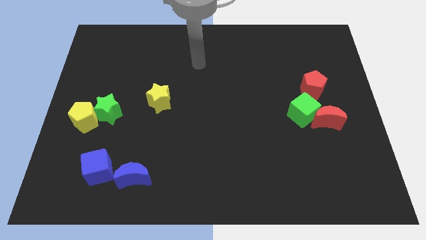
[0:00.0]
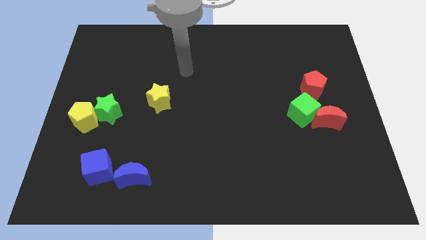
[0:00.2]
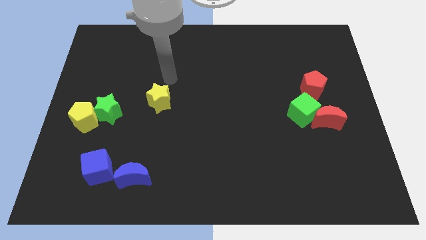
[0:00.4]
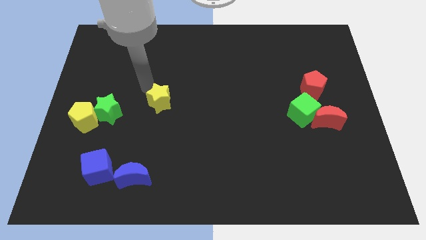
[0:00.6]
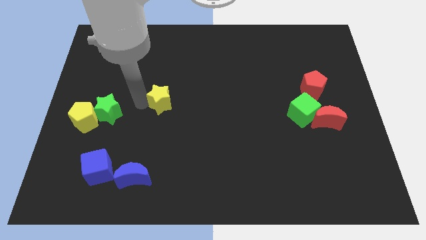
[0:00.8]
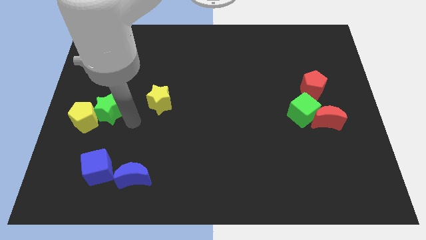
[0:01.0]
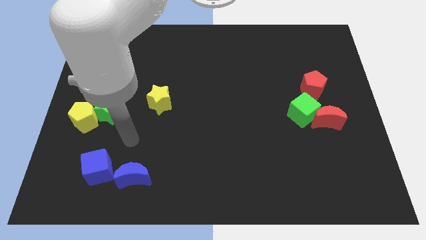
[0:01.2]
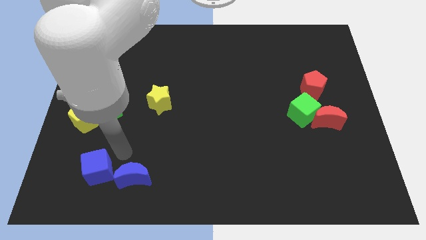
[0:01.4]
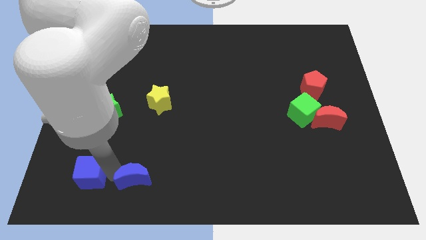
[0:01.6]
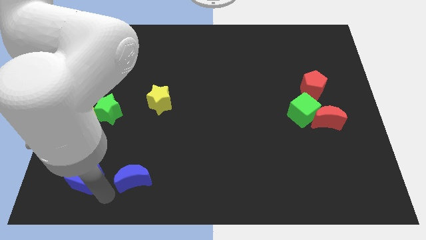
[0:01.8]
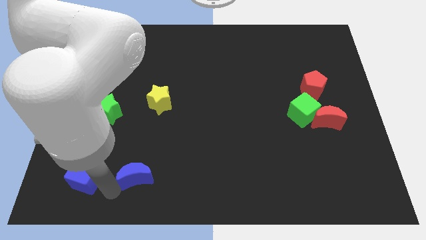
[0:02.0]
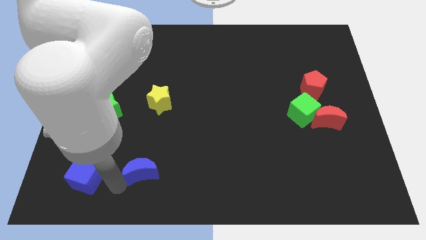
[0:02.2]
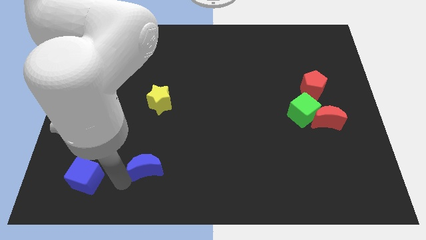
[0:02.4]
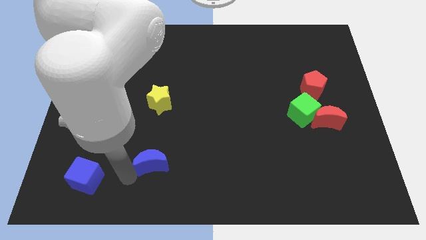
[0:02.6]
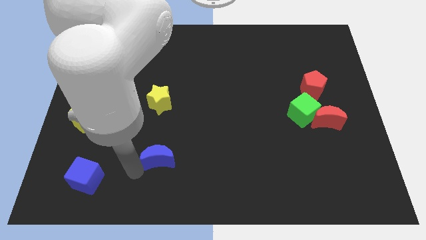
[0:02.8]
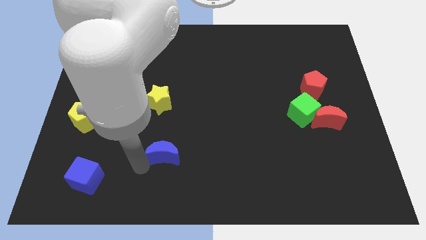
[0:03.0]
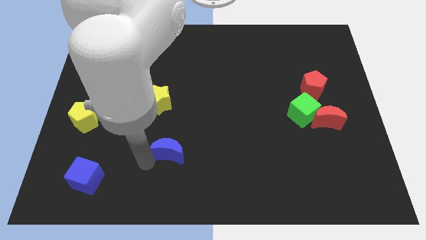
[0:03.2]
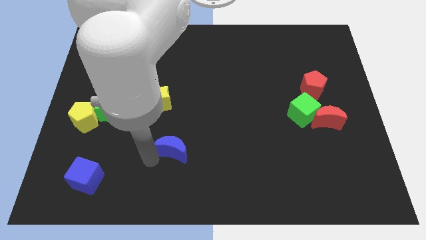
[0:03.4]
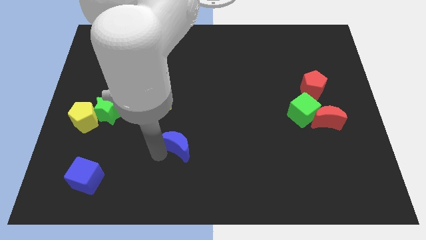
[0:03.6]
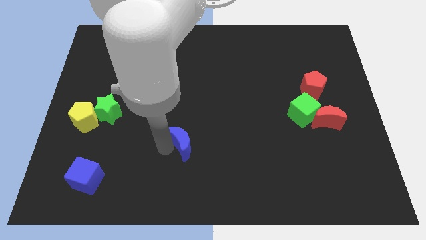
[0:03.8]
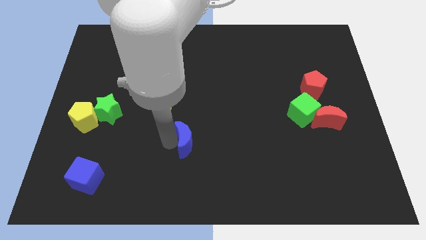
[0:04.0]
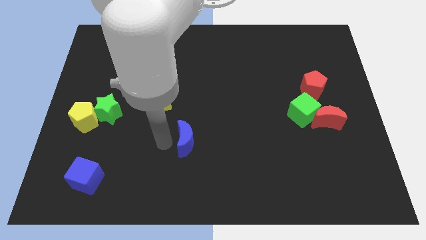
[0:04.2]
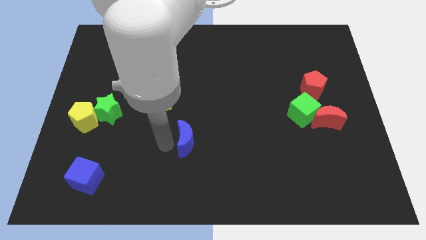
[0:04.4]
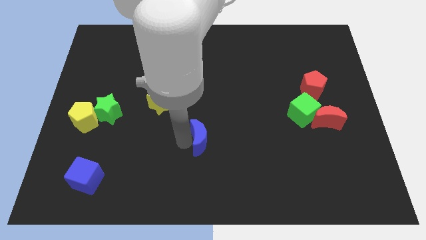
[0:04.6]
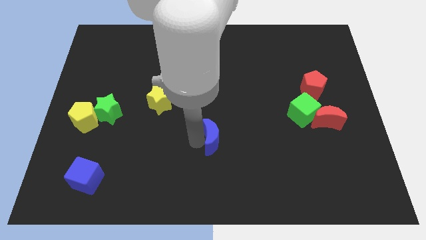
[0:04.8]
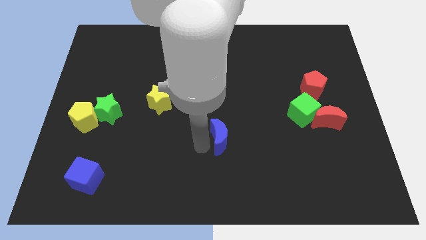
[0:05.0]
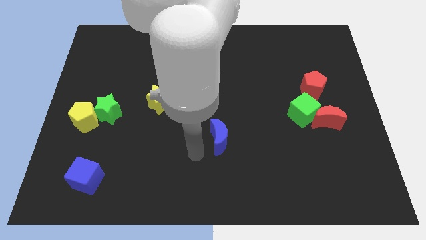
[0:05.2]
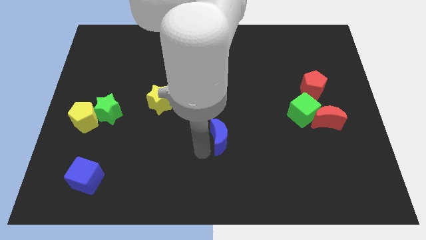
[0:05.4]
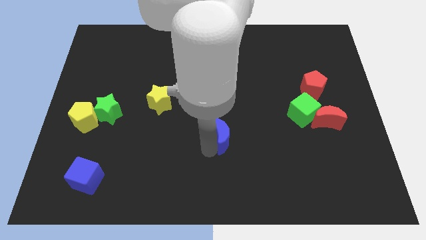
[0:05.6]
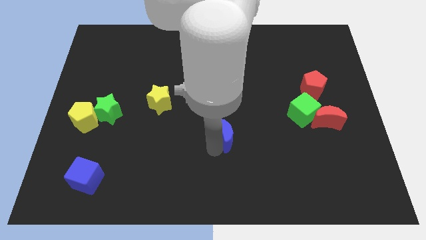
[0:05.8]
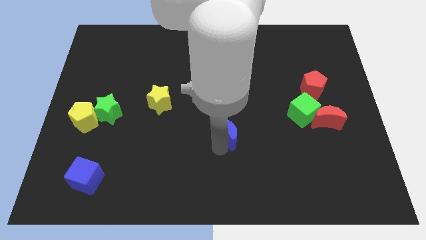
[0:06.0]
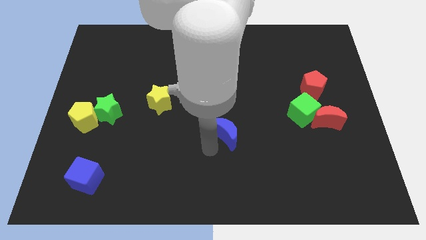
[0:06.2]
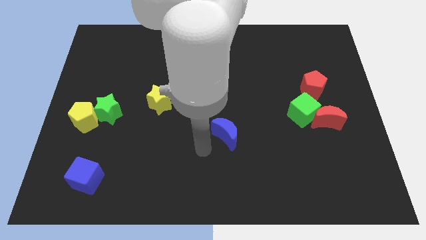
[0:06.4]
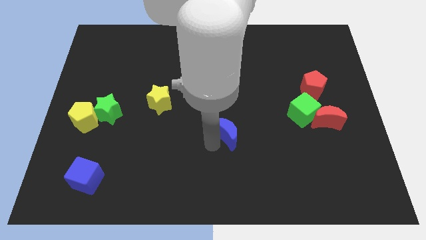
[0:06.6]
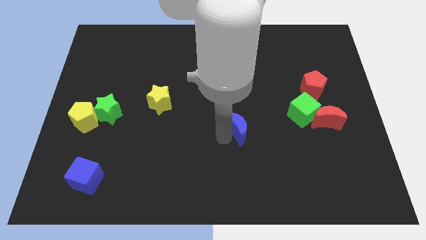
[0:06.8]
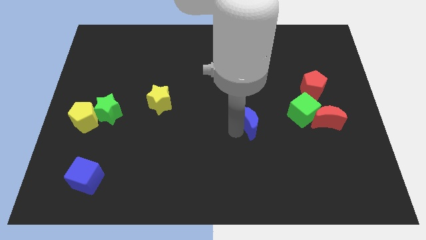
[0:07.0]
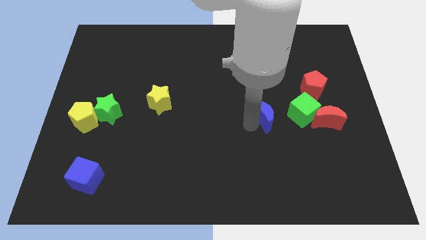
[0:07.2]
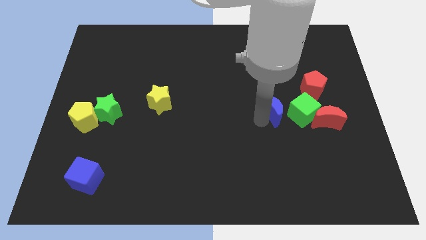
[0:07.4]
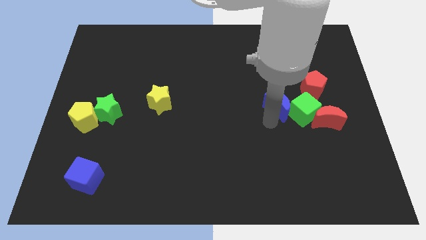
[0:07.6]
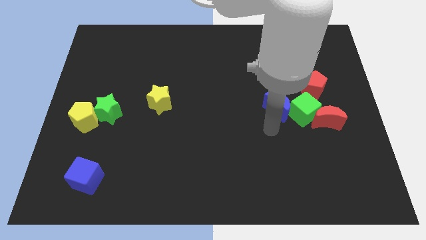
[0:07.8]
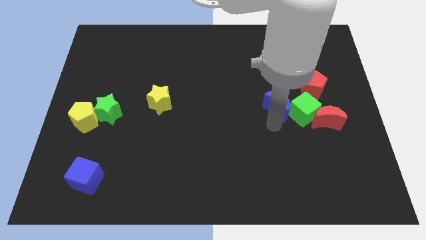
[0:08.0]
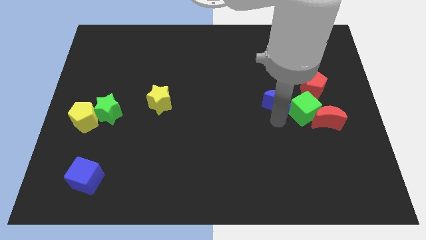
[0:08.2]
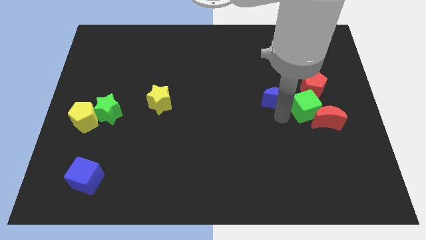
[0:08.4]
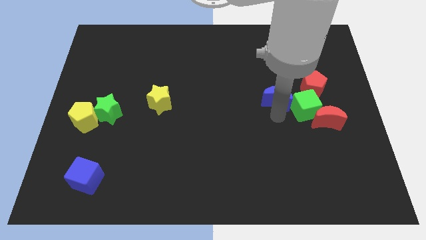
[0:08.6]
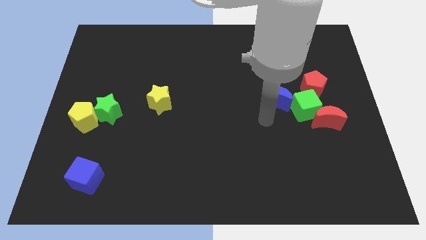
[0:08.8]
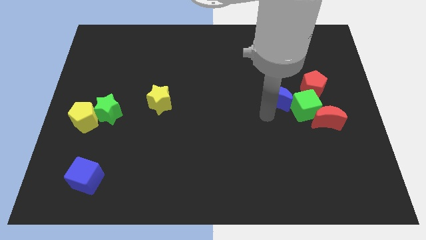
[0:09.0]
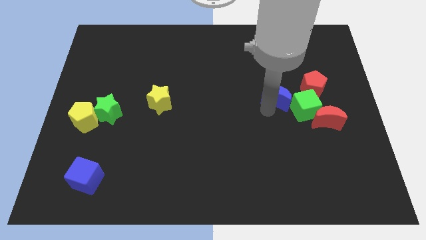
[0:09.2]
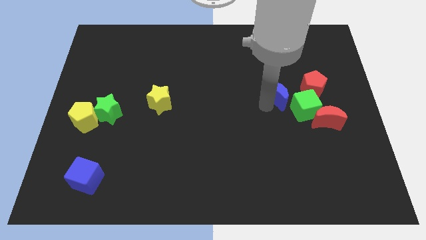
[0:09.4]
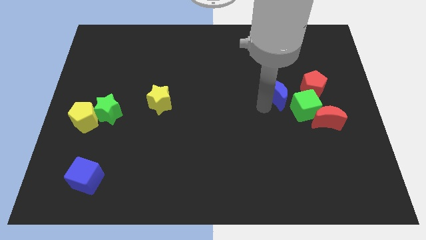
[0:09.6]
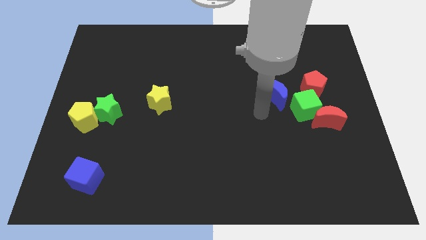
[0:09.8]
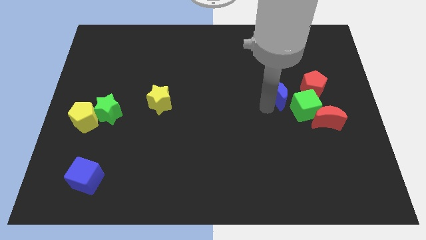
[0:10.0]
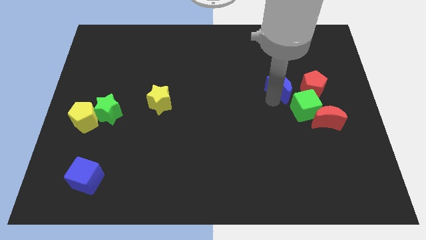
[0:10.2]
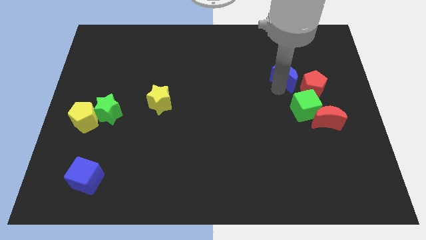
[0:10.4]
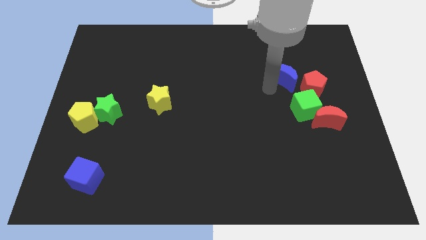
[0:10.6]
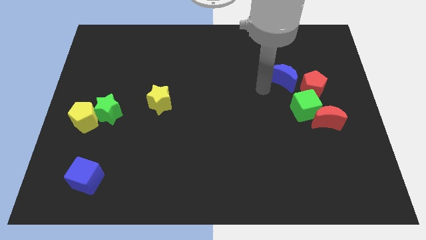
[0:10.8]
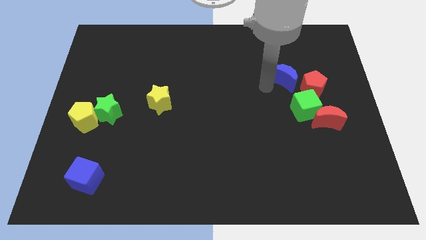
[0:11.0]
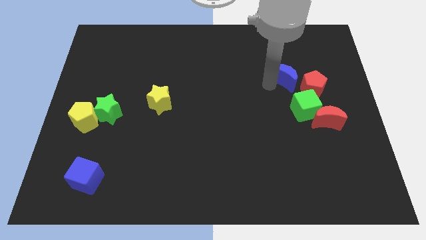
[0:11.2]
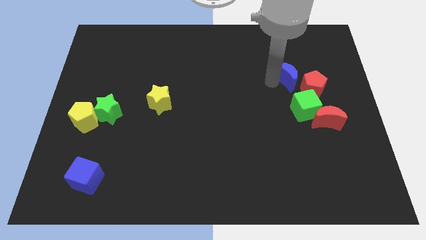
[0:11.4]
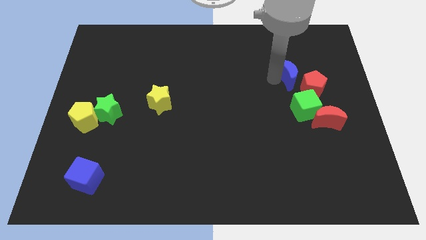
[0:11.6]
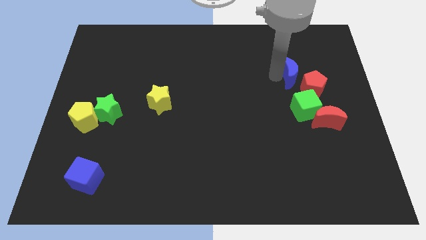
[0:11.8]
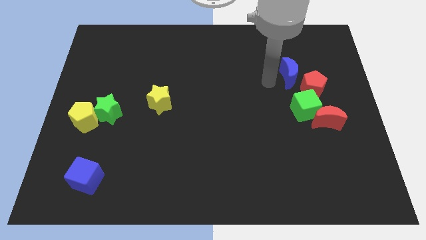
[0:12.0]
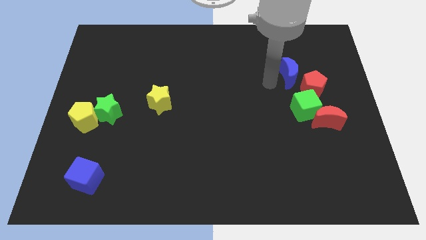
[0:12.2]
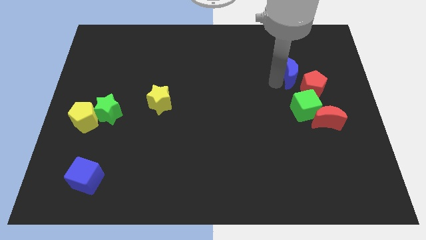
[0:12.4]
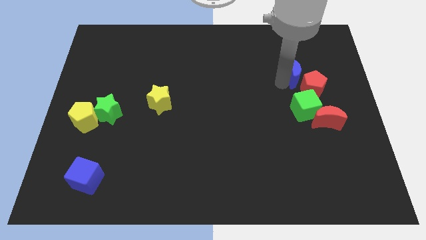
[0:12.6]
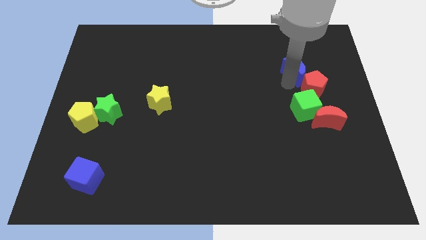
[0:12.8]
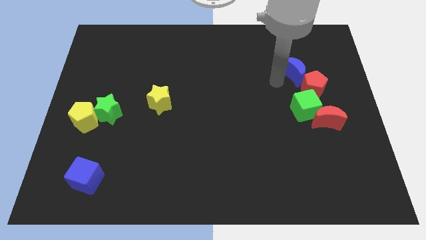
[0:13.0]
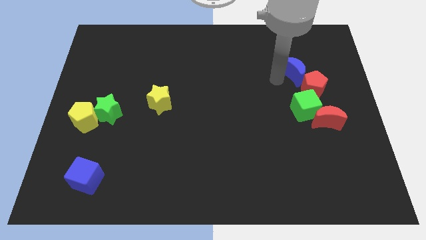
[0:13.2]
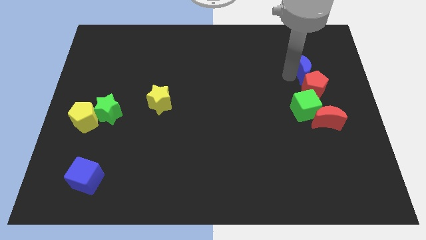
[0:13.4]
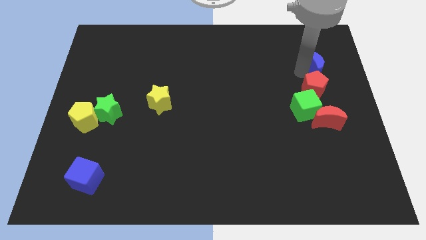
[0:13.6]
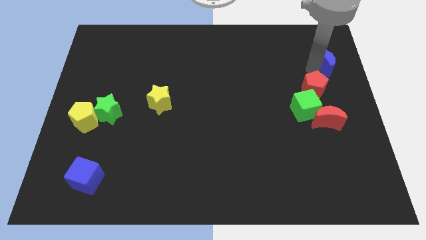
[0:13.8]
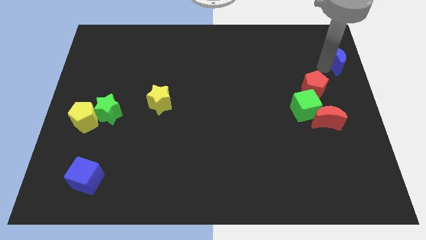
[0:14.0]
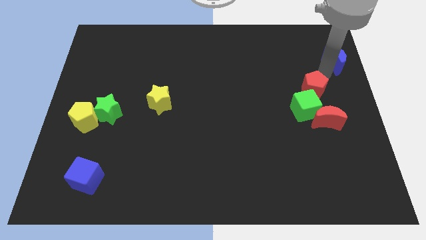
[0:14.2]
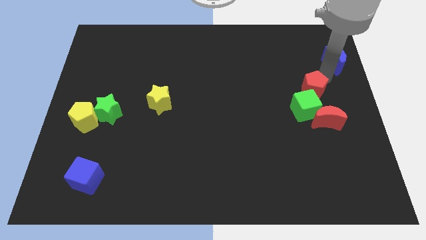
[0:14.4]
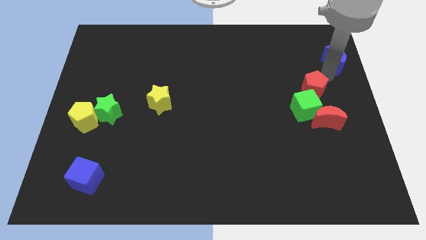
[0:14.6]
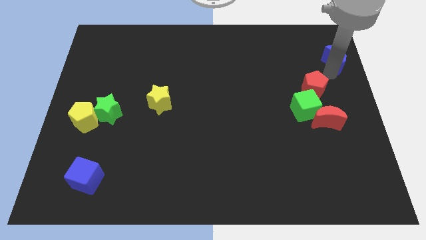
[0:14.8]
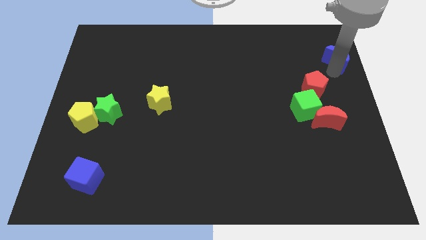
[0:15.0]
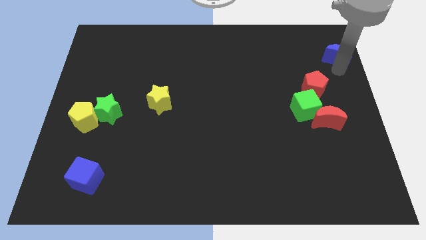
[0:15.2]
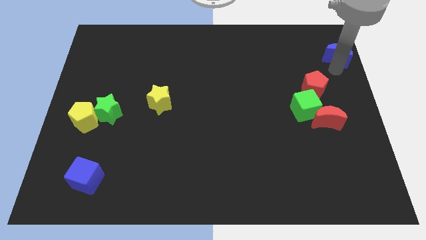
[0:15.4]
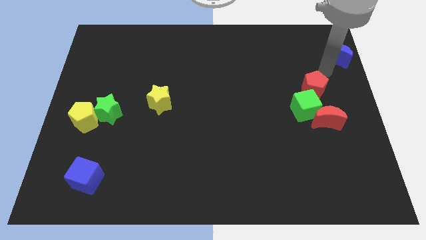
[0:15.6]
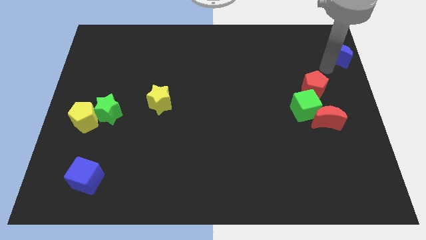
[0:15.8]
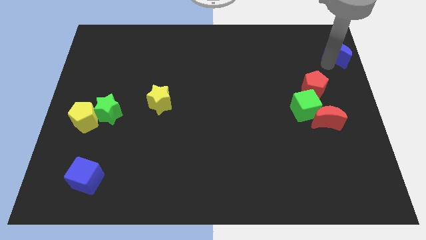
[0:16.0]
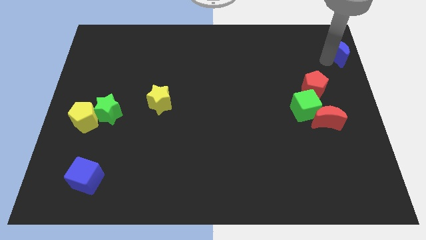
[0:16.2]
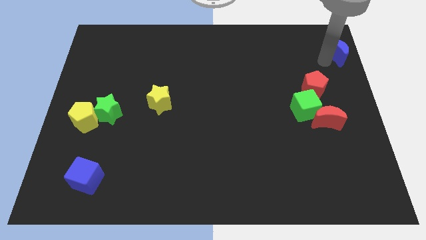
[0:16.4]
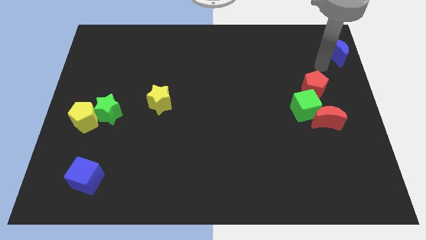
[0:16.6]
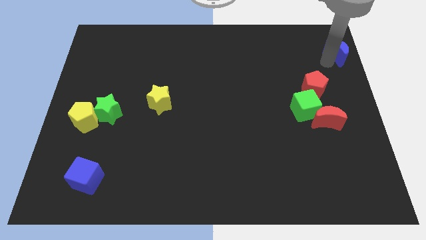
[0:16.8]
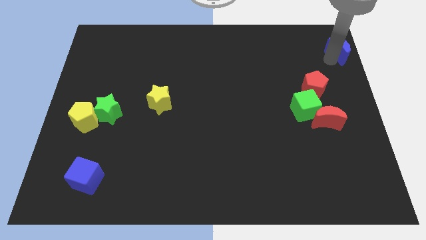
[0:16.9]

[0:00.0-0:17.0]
push the blue moon to the top right corner
